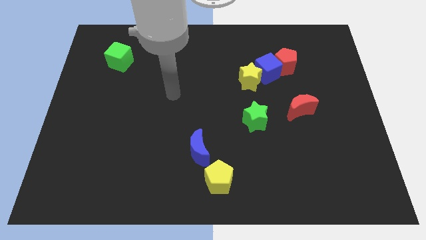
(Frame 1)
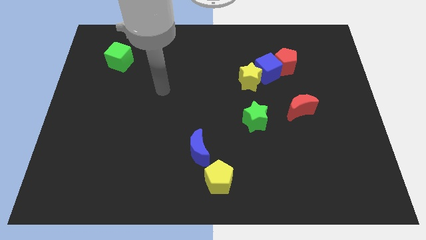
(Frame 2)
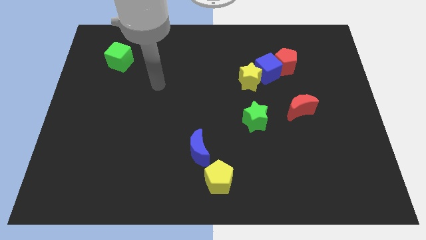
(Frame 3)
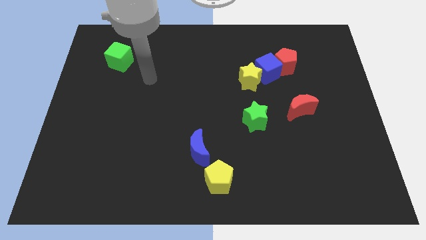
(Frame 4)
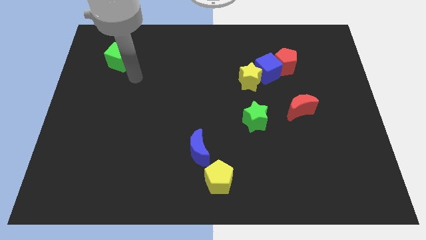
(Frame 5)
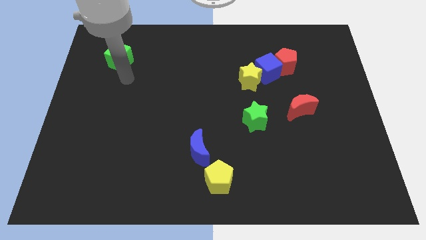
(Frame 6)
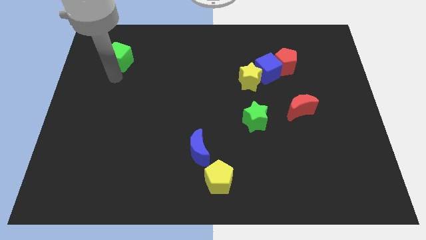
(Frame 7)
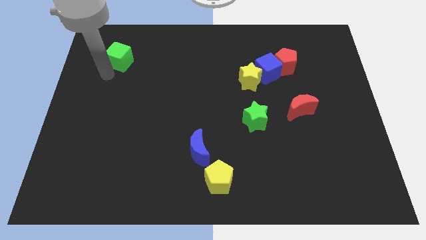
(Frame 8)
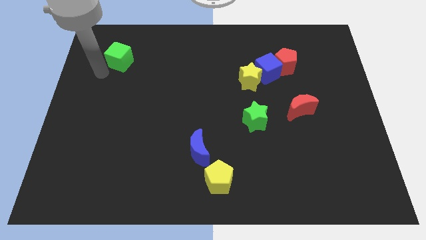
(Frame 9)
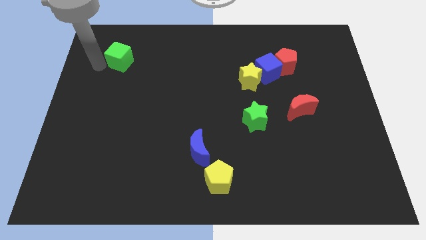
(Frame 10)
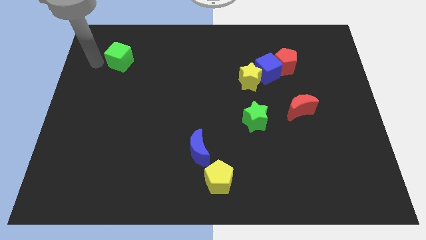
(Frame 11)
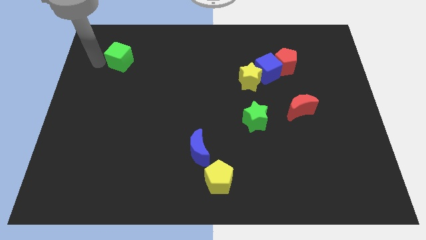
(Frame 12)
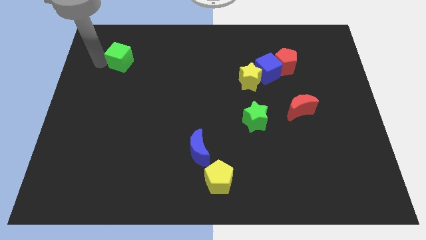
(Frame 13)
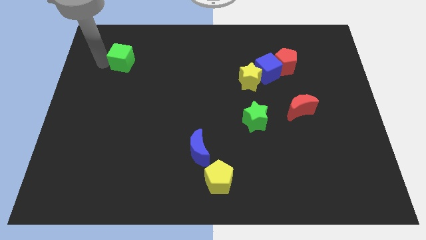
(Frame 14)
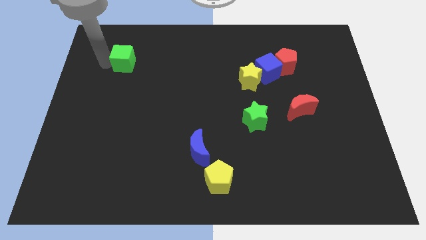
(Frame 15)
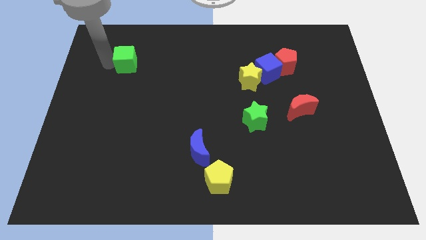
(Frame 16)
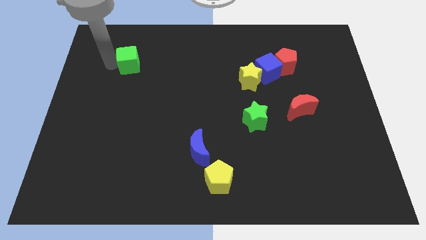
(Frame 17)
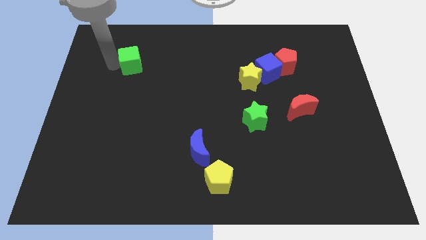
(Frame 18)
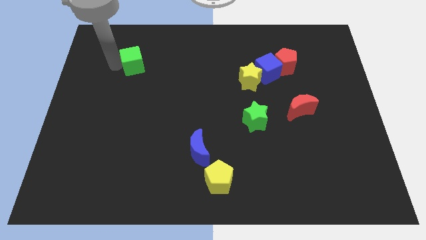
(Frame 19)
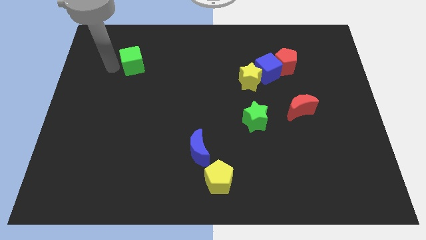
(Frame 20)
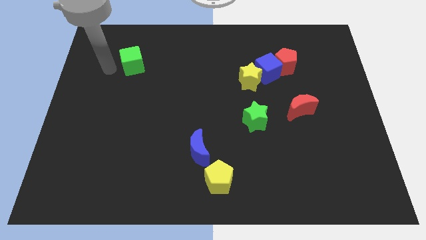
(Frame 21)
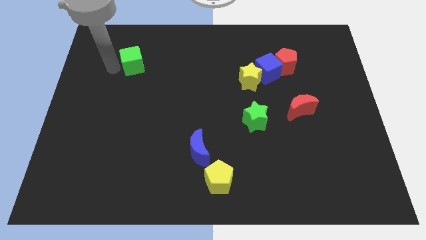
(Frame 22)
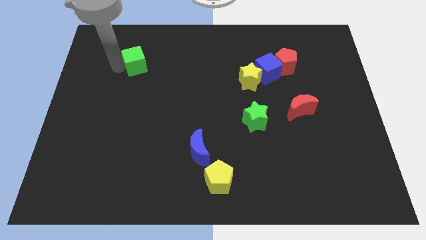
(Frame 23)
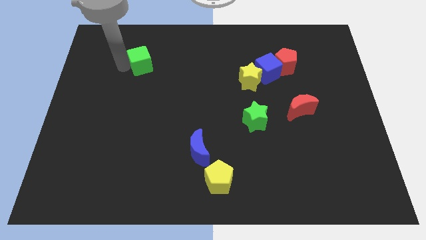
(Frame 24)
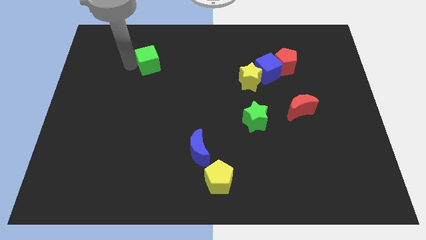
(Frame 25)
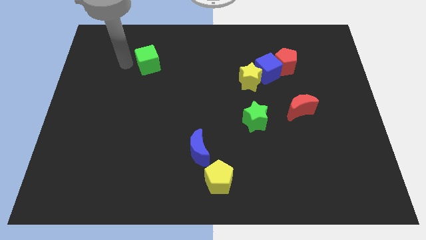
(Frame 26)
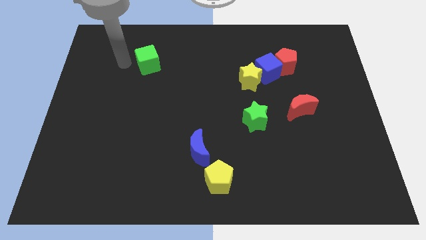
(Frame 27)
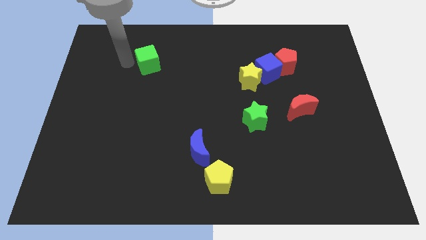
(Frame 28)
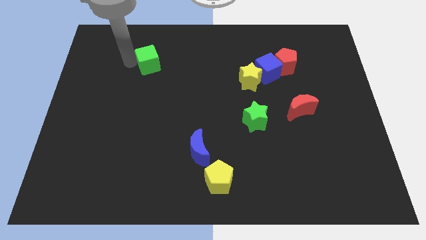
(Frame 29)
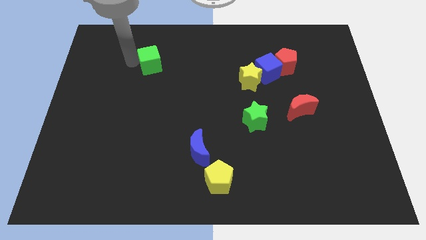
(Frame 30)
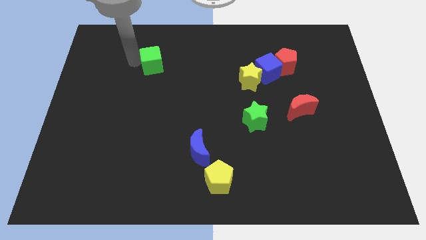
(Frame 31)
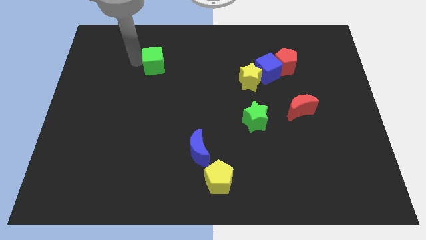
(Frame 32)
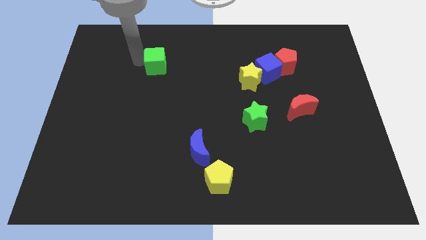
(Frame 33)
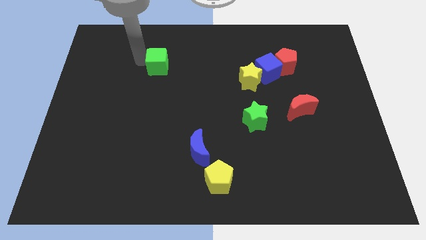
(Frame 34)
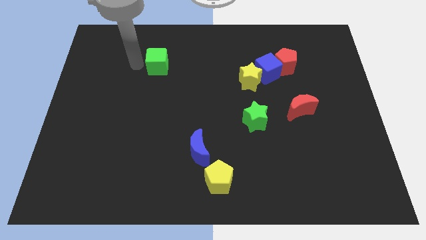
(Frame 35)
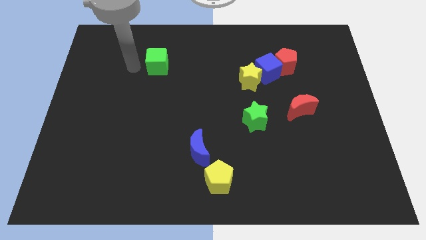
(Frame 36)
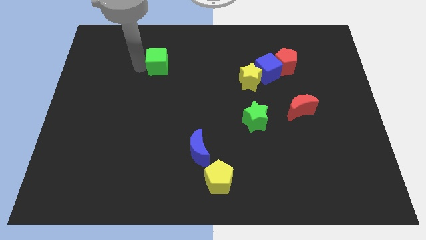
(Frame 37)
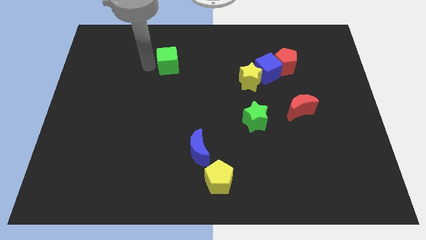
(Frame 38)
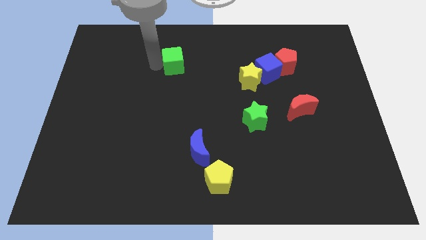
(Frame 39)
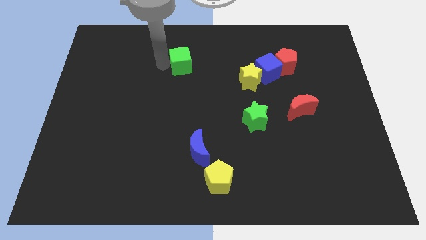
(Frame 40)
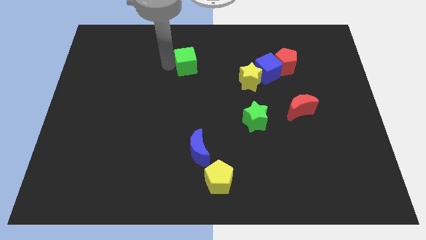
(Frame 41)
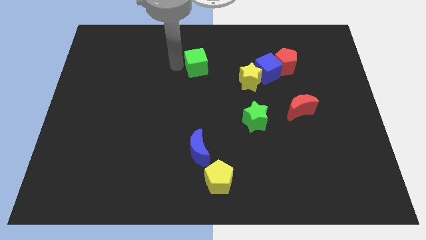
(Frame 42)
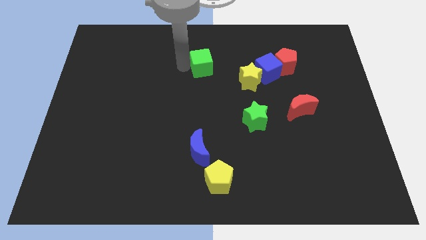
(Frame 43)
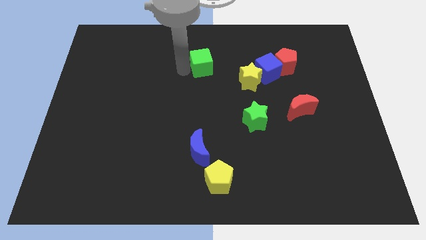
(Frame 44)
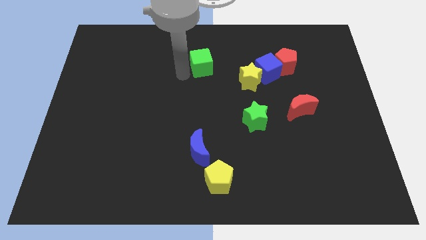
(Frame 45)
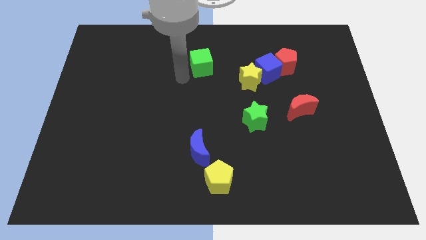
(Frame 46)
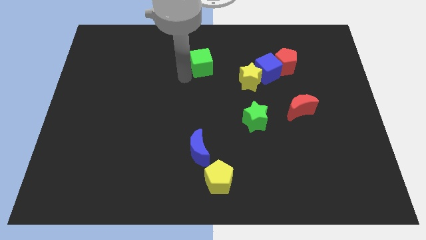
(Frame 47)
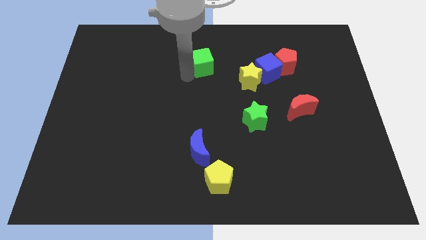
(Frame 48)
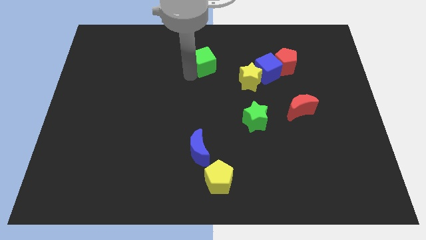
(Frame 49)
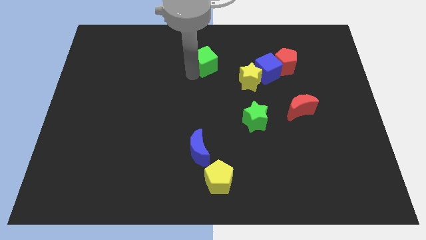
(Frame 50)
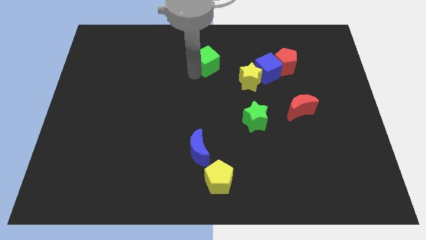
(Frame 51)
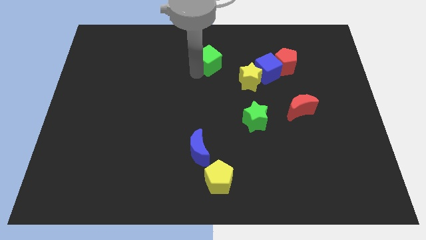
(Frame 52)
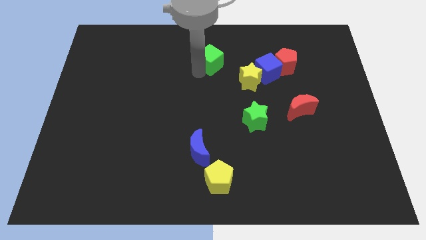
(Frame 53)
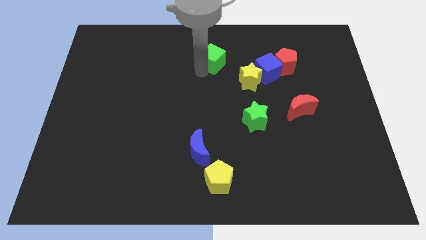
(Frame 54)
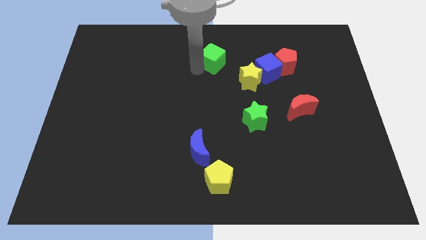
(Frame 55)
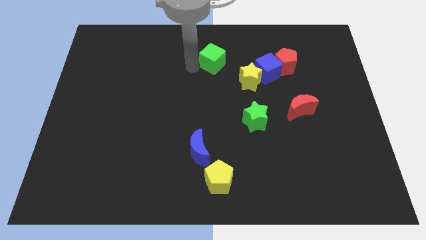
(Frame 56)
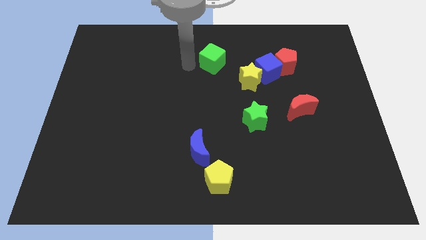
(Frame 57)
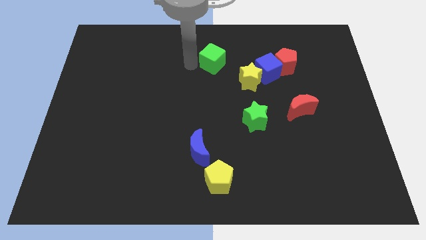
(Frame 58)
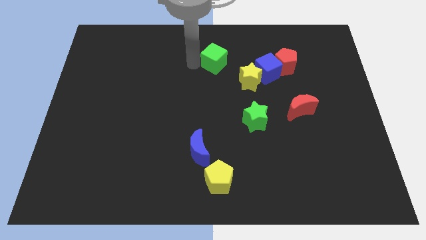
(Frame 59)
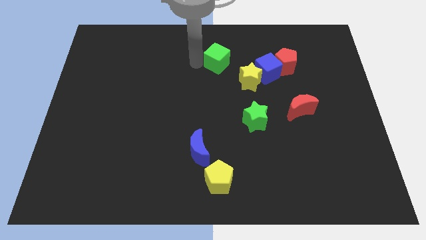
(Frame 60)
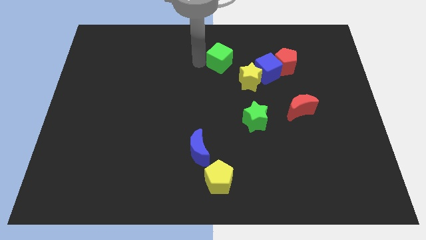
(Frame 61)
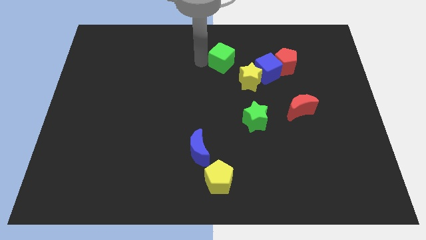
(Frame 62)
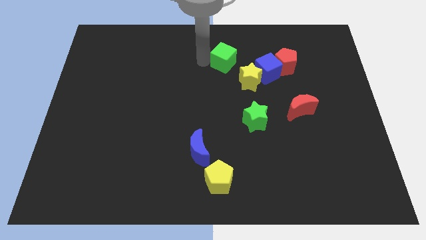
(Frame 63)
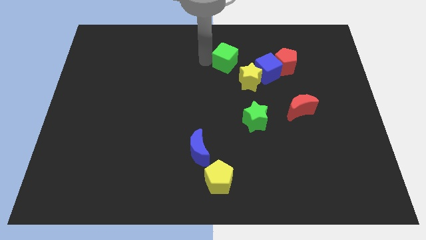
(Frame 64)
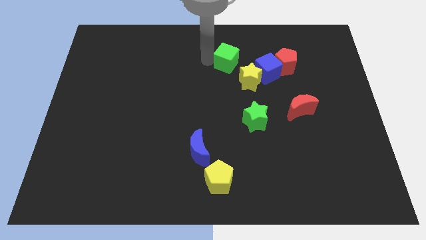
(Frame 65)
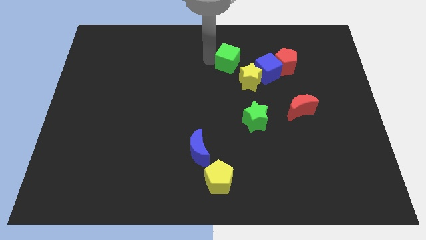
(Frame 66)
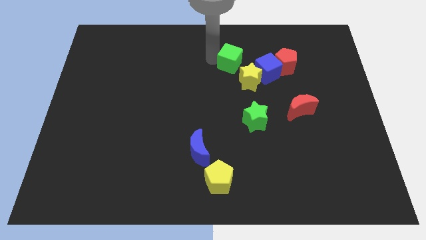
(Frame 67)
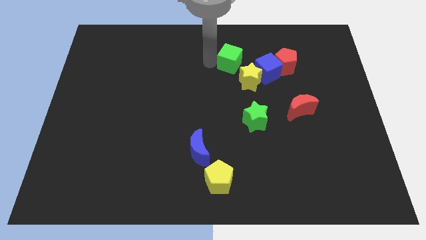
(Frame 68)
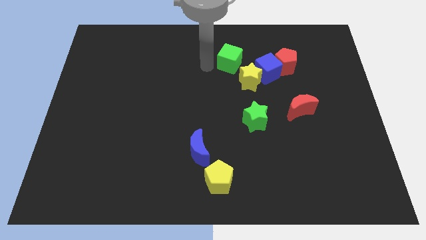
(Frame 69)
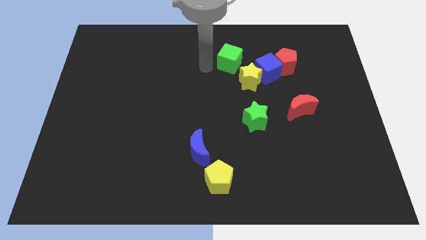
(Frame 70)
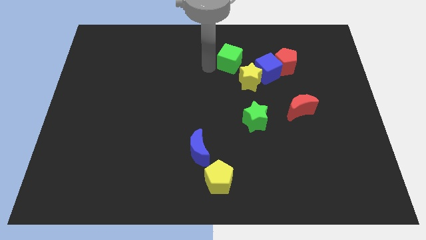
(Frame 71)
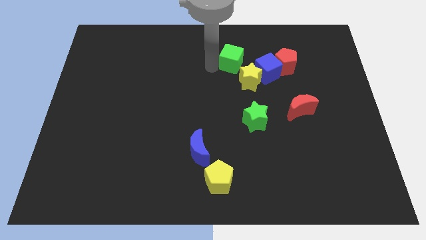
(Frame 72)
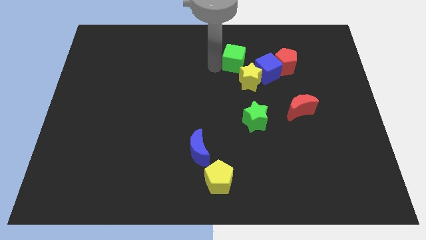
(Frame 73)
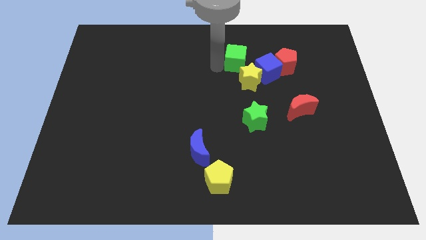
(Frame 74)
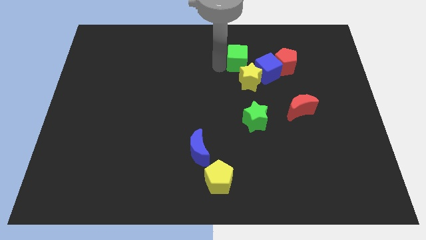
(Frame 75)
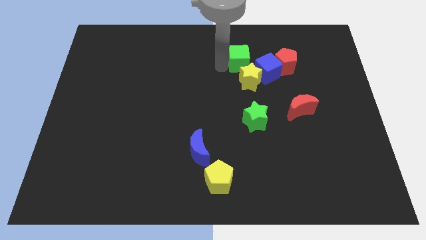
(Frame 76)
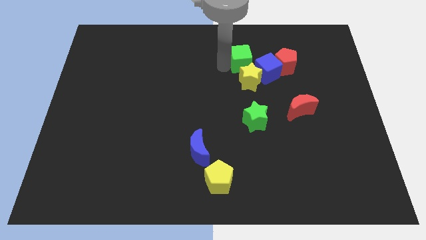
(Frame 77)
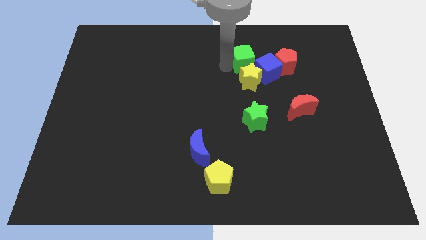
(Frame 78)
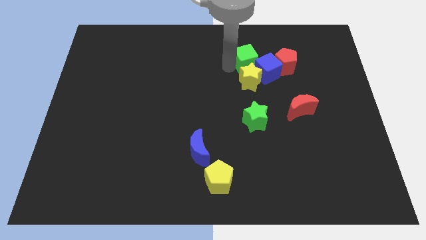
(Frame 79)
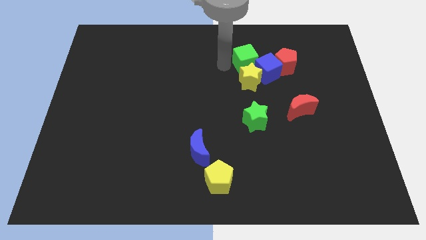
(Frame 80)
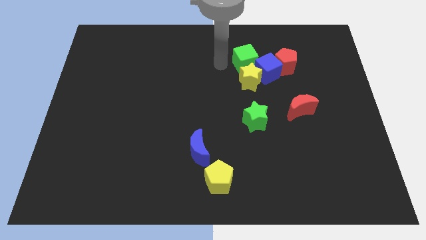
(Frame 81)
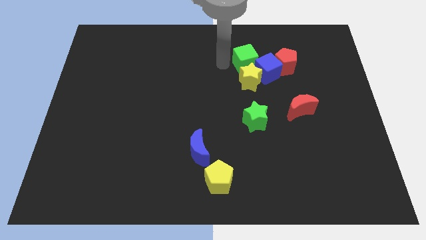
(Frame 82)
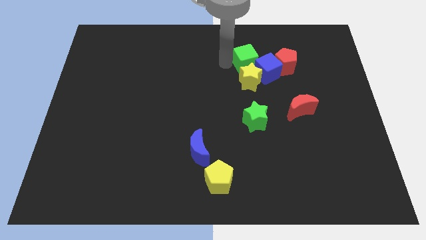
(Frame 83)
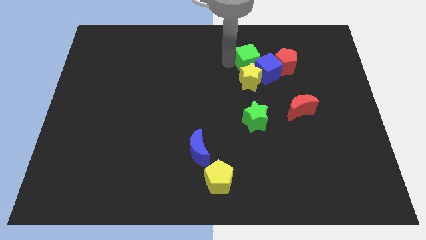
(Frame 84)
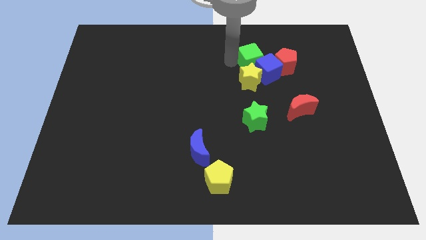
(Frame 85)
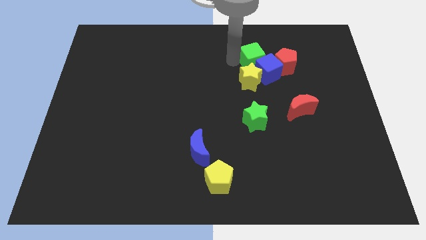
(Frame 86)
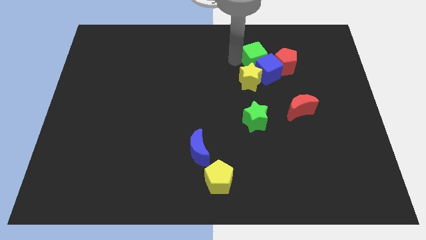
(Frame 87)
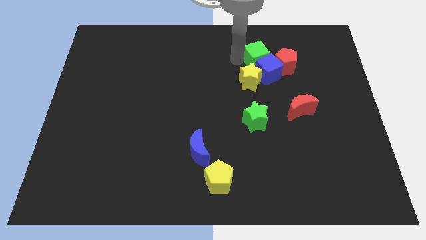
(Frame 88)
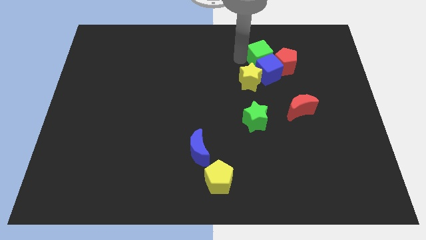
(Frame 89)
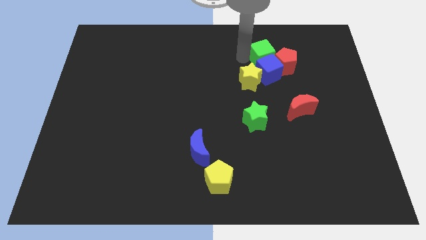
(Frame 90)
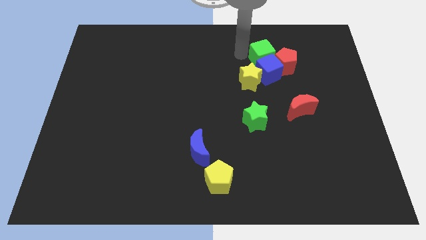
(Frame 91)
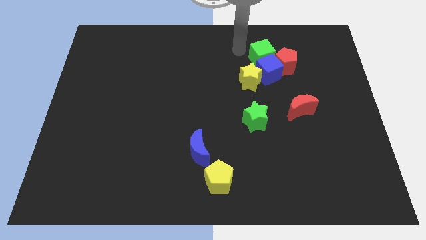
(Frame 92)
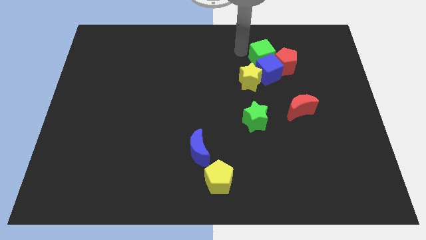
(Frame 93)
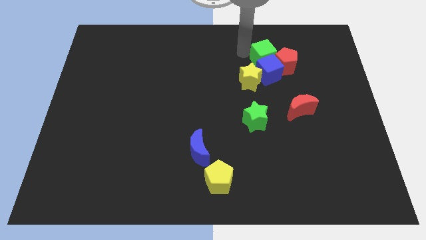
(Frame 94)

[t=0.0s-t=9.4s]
move the green cube close to the red pentagon
